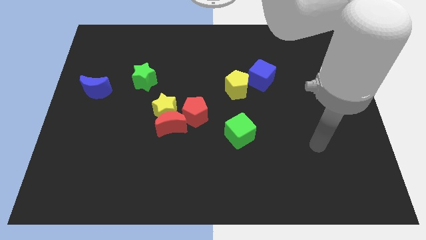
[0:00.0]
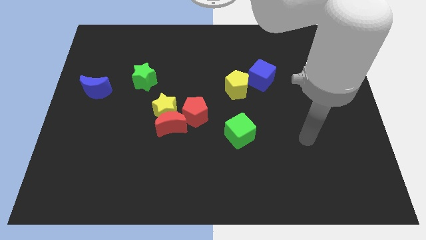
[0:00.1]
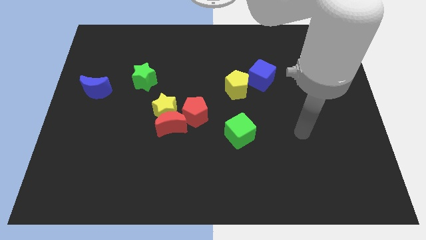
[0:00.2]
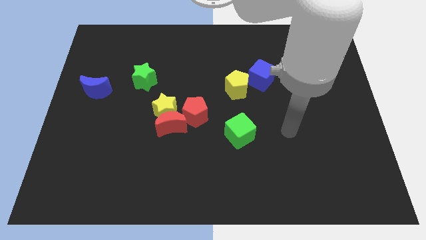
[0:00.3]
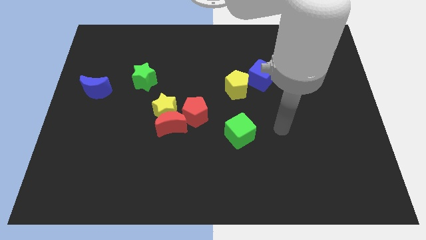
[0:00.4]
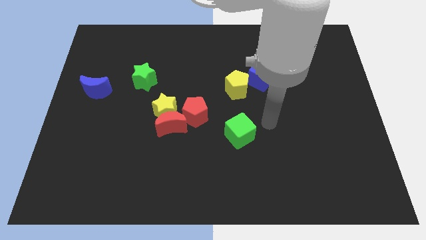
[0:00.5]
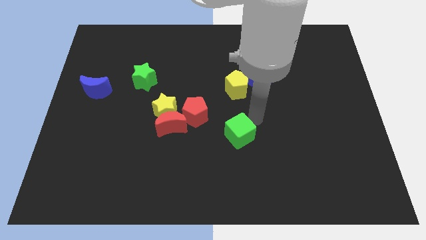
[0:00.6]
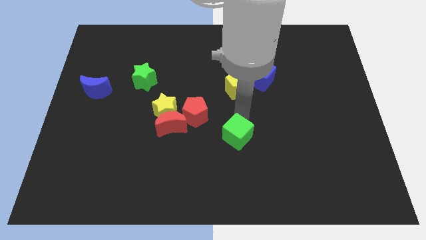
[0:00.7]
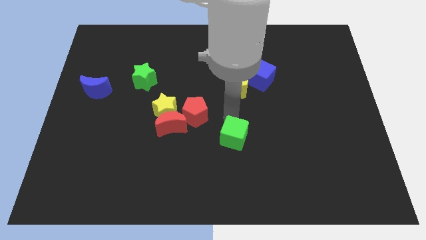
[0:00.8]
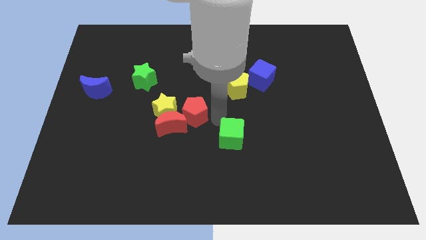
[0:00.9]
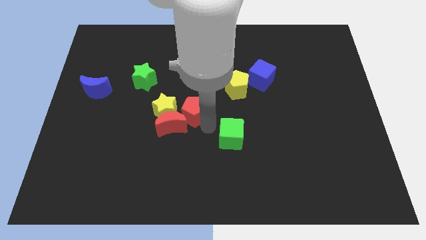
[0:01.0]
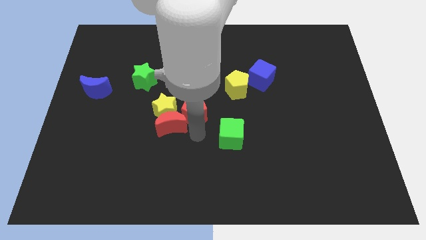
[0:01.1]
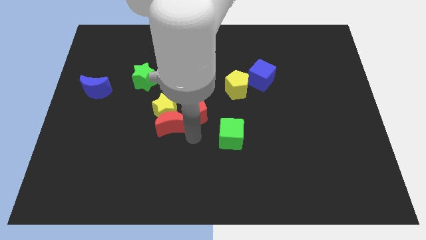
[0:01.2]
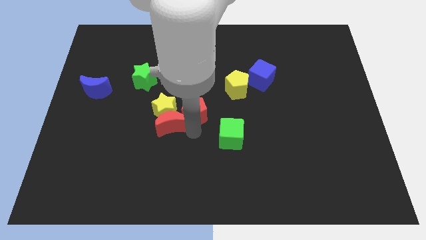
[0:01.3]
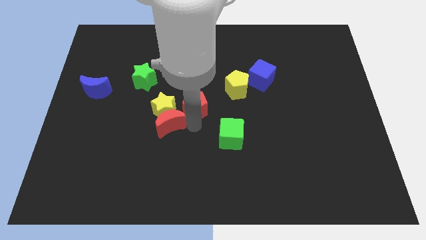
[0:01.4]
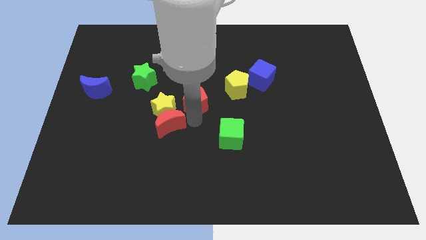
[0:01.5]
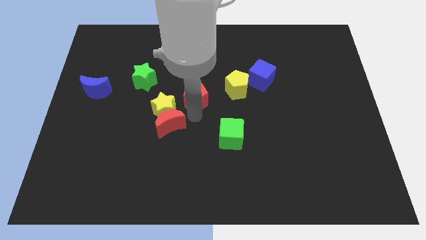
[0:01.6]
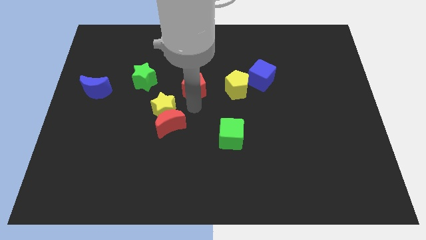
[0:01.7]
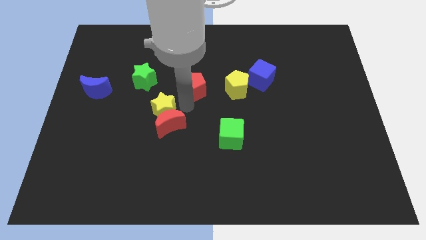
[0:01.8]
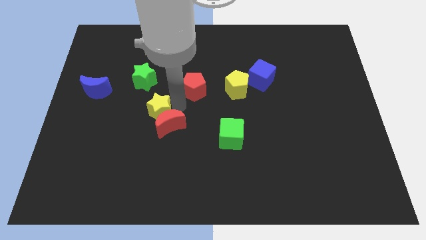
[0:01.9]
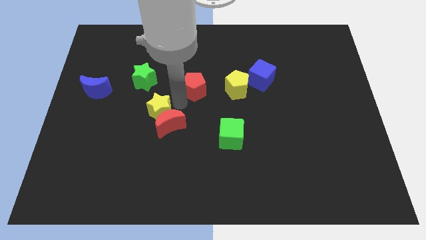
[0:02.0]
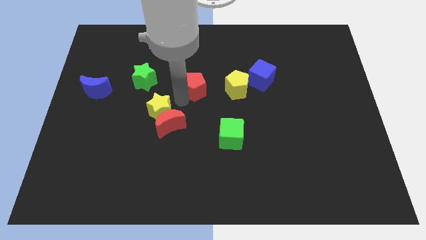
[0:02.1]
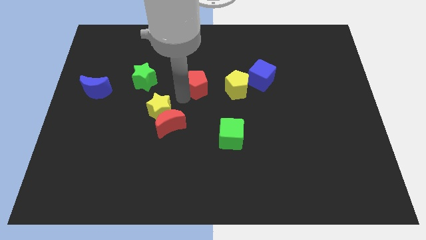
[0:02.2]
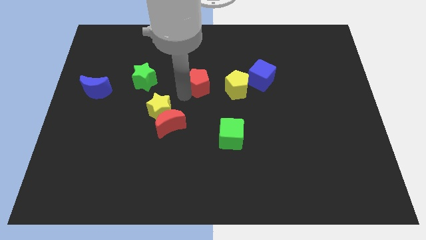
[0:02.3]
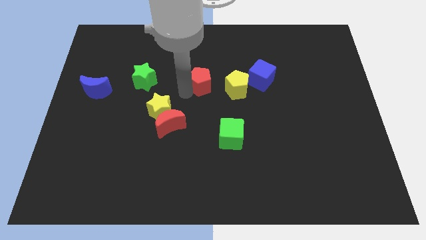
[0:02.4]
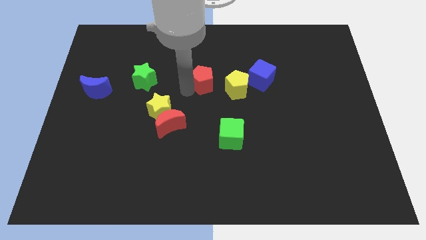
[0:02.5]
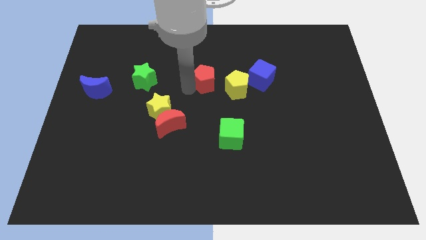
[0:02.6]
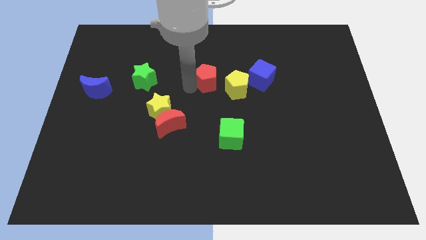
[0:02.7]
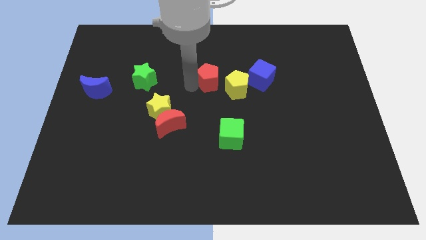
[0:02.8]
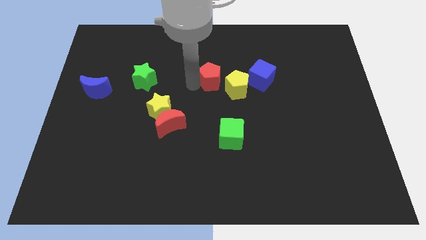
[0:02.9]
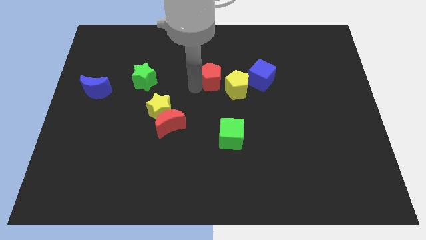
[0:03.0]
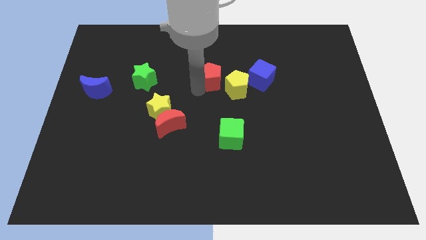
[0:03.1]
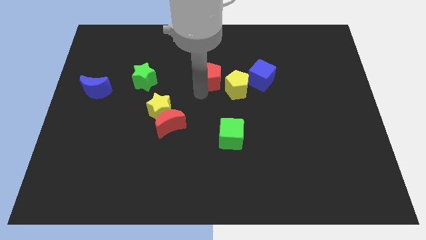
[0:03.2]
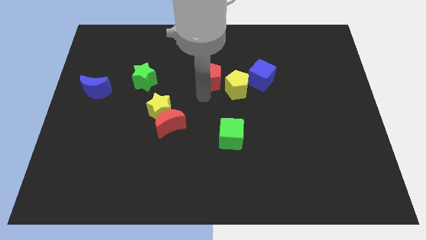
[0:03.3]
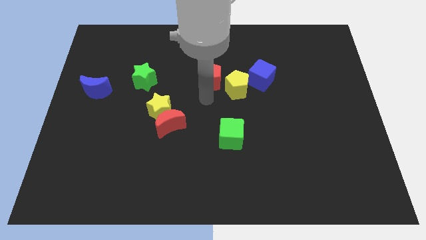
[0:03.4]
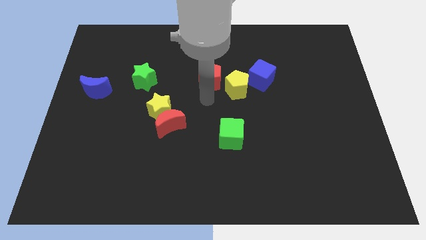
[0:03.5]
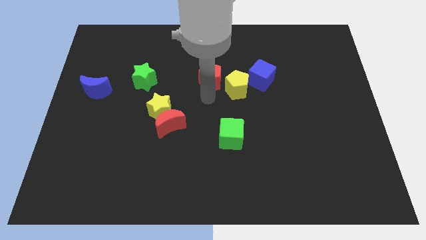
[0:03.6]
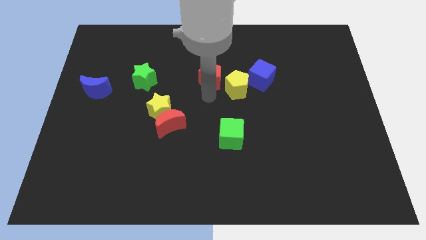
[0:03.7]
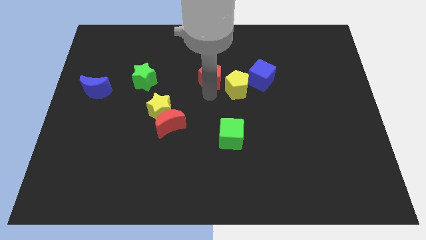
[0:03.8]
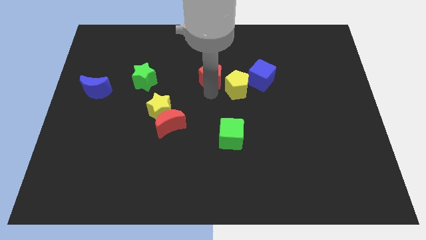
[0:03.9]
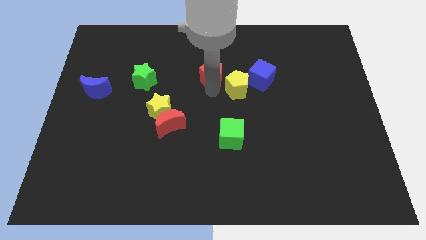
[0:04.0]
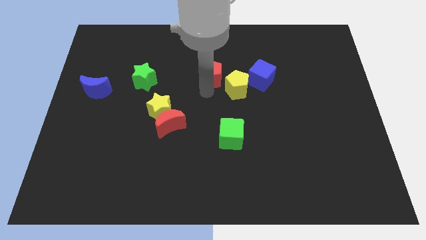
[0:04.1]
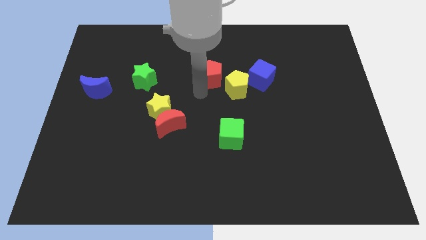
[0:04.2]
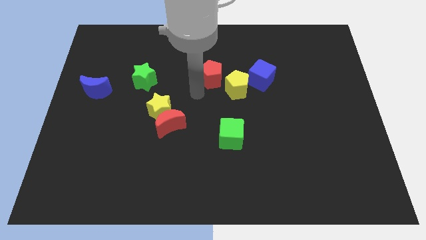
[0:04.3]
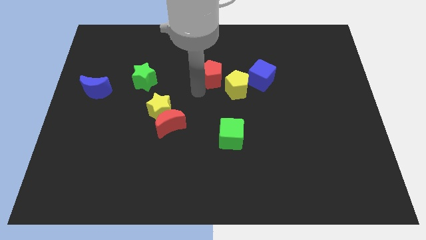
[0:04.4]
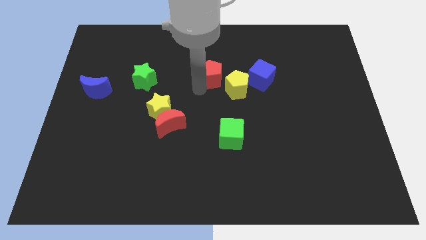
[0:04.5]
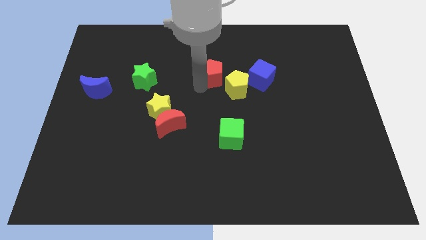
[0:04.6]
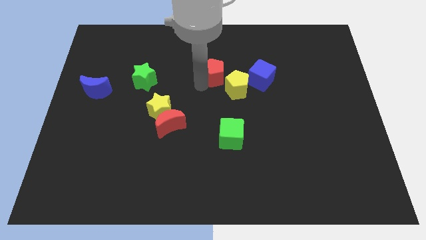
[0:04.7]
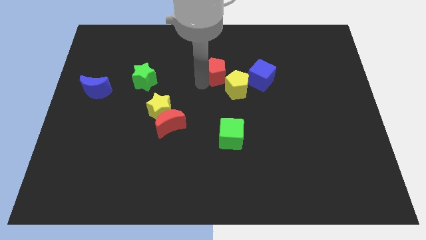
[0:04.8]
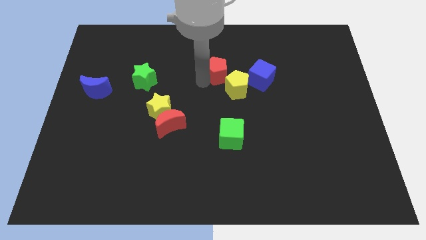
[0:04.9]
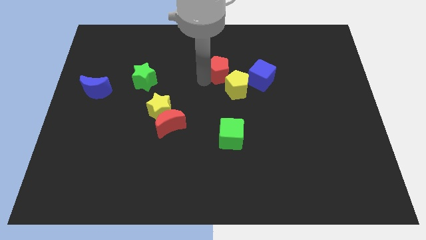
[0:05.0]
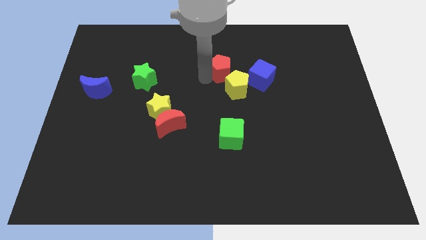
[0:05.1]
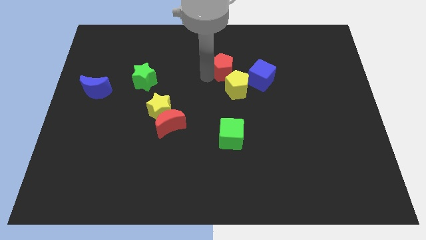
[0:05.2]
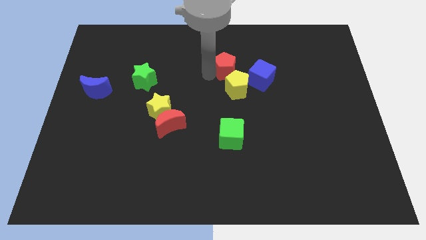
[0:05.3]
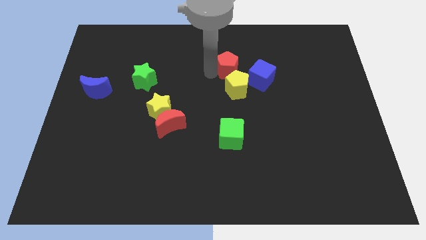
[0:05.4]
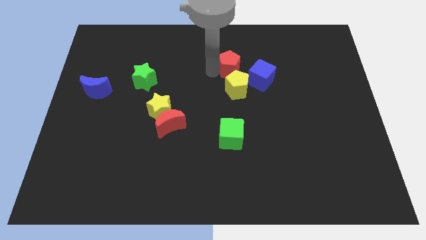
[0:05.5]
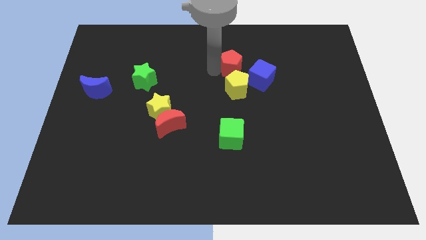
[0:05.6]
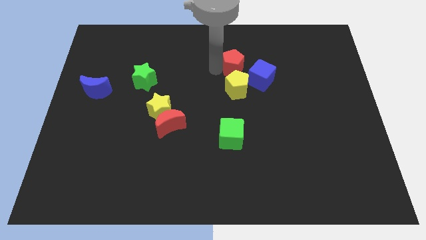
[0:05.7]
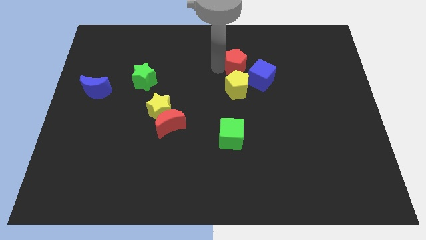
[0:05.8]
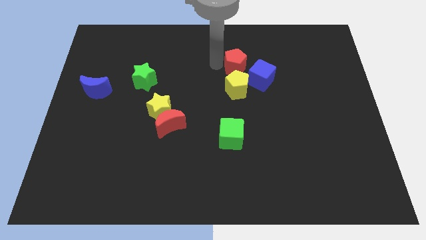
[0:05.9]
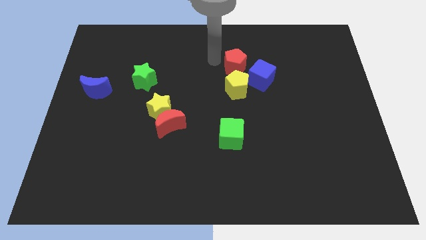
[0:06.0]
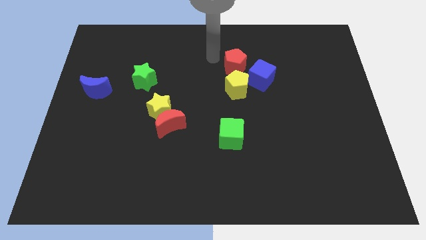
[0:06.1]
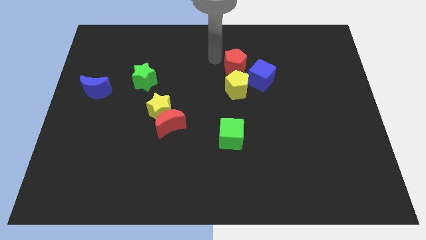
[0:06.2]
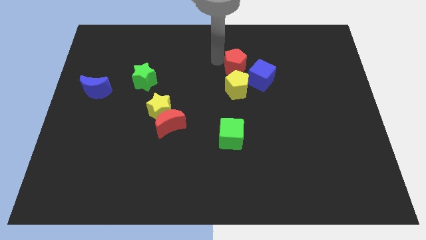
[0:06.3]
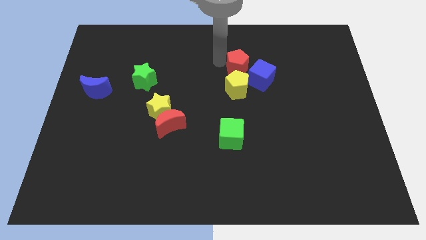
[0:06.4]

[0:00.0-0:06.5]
move the red pentagon diagonally up and to the right of the yellow pentagon
